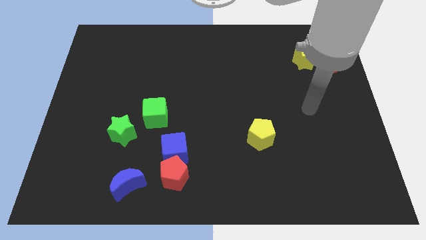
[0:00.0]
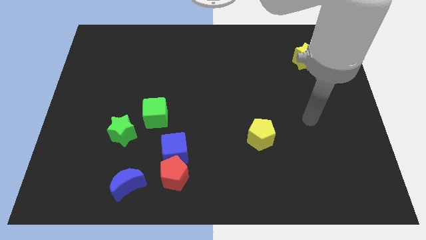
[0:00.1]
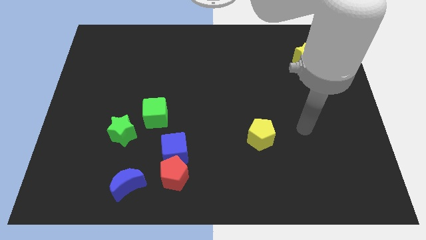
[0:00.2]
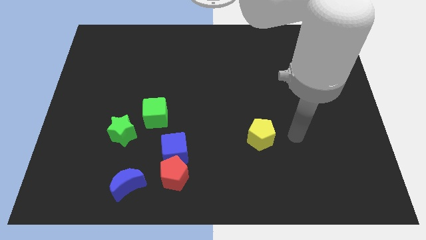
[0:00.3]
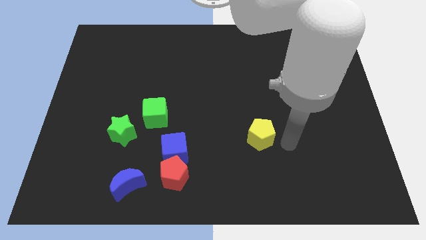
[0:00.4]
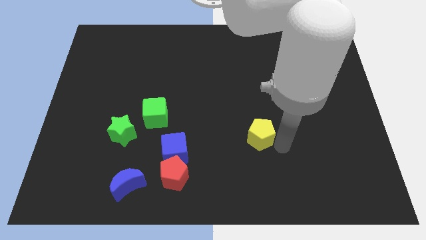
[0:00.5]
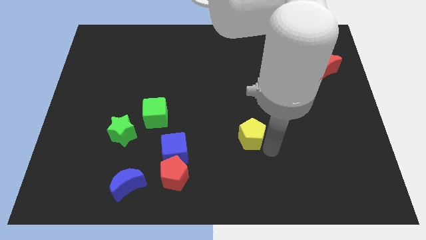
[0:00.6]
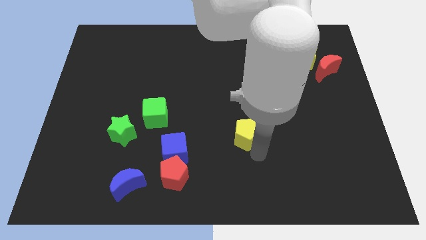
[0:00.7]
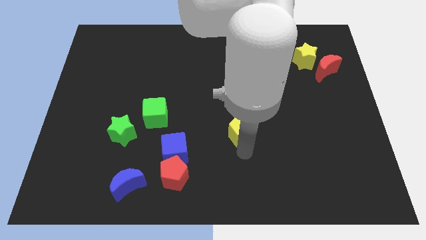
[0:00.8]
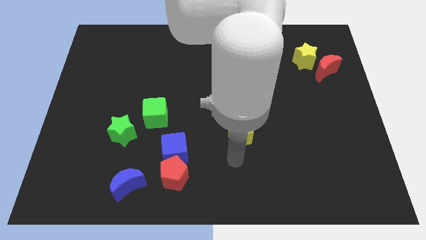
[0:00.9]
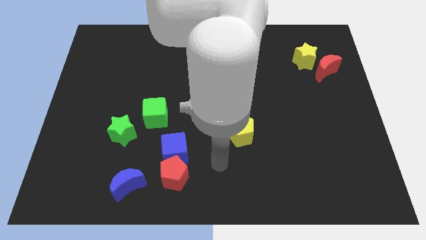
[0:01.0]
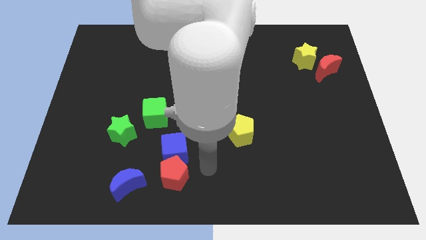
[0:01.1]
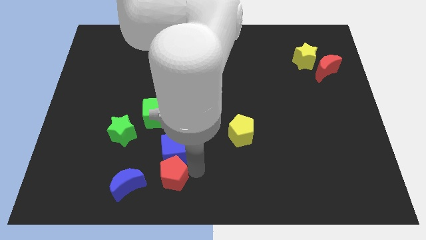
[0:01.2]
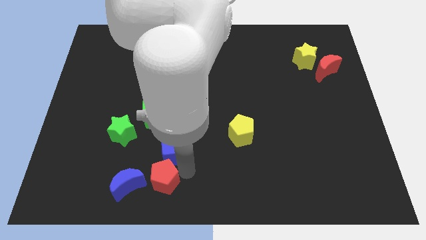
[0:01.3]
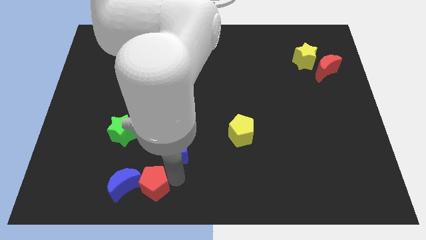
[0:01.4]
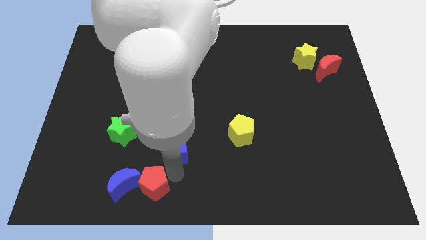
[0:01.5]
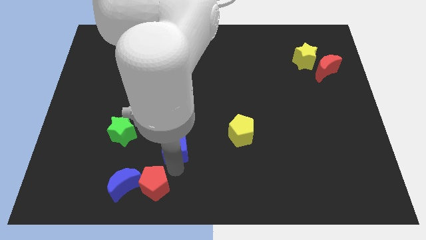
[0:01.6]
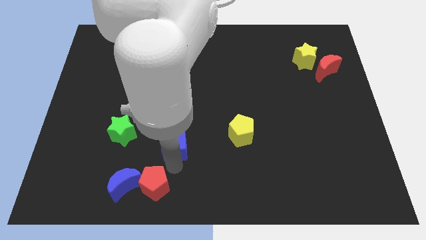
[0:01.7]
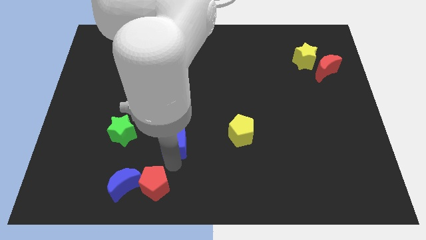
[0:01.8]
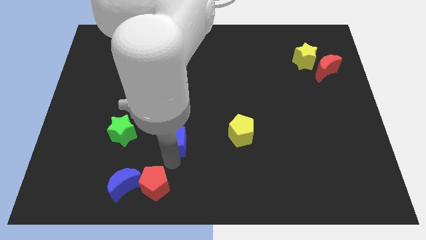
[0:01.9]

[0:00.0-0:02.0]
move the blue cube away from the red pentagon

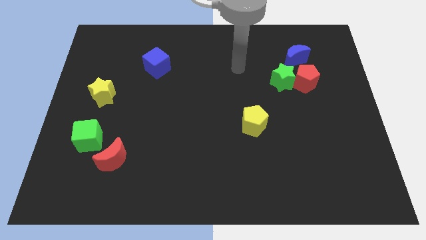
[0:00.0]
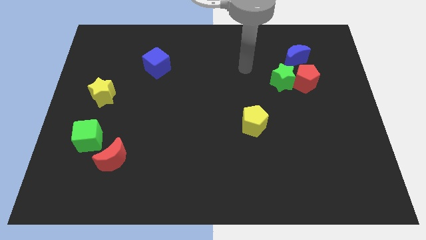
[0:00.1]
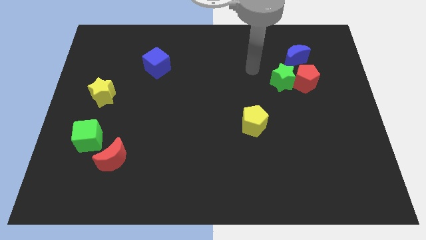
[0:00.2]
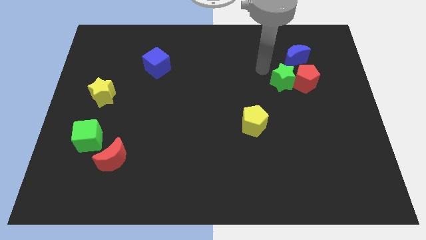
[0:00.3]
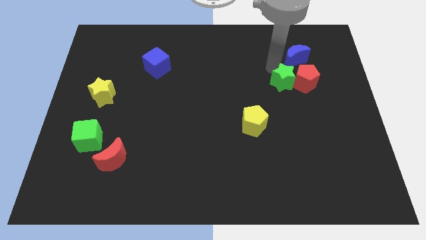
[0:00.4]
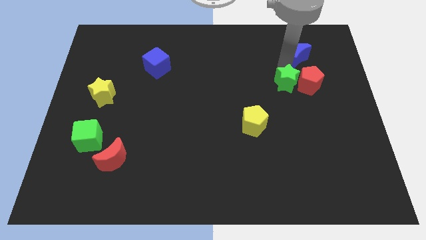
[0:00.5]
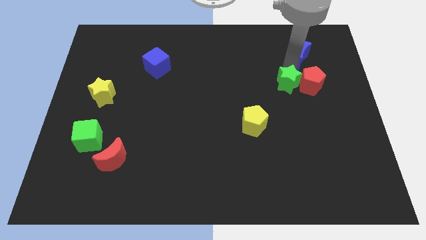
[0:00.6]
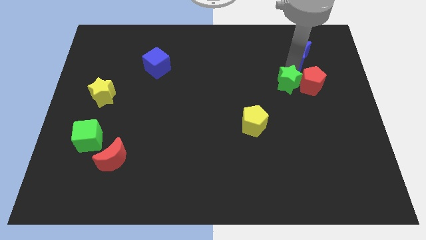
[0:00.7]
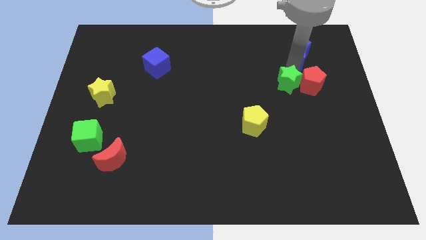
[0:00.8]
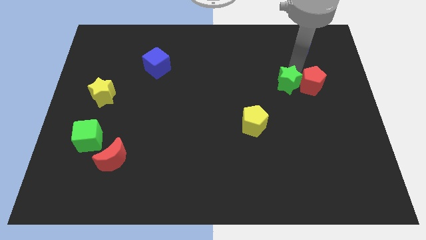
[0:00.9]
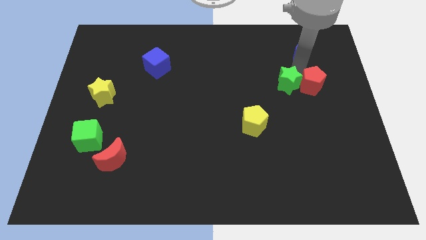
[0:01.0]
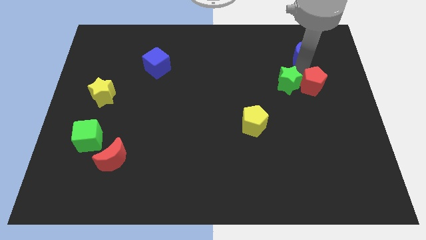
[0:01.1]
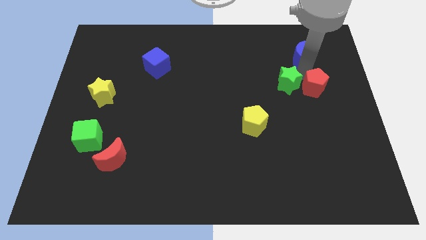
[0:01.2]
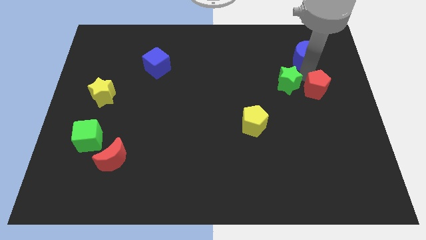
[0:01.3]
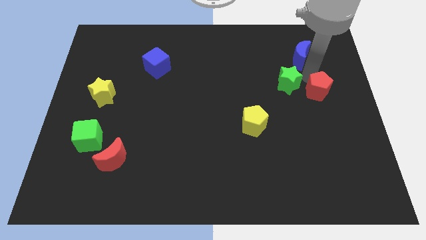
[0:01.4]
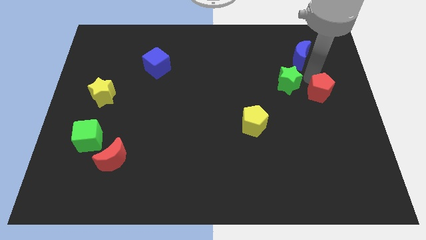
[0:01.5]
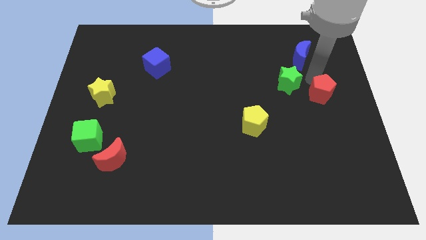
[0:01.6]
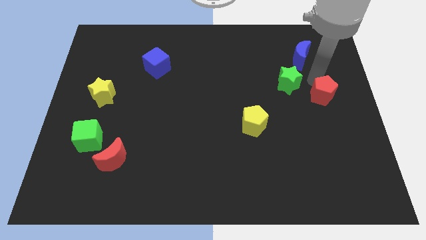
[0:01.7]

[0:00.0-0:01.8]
move the red pentagon away from the green star and blue moon

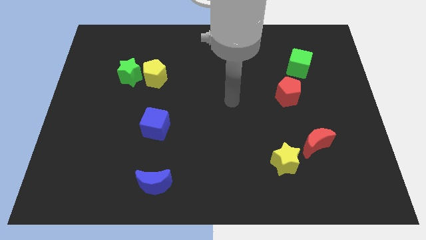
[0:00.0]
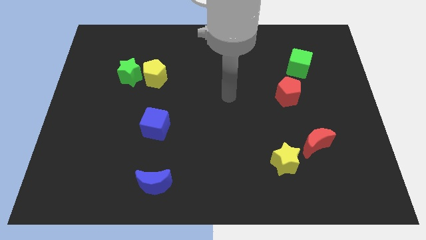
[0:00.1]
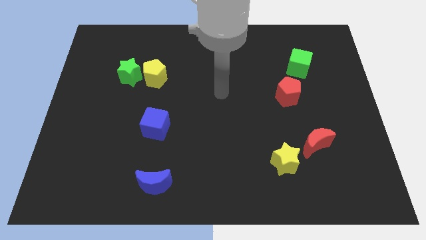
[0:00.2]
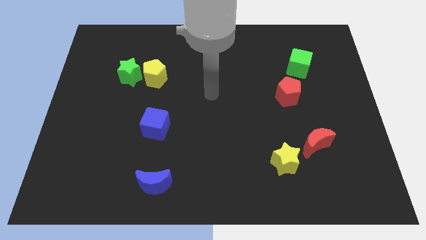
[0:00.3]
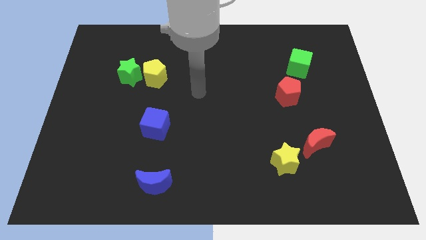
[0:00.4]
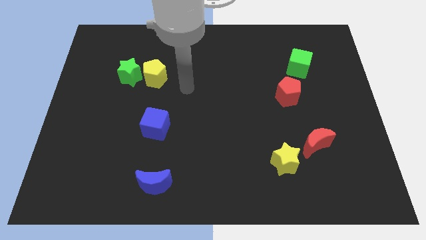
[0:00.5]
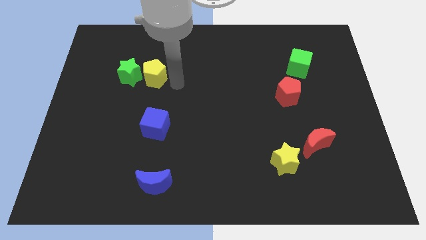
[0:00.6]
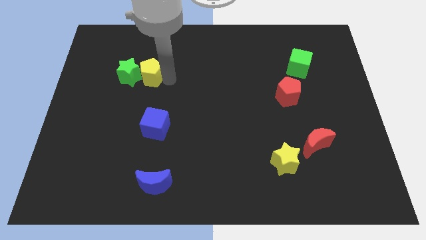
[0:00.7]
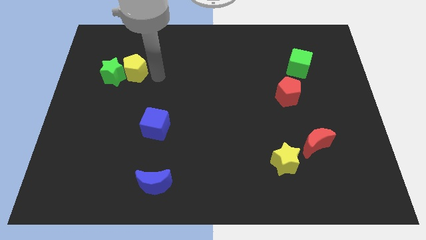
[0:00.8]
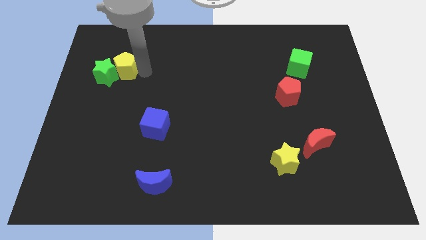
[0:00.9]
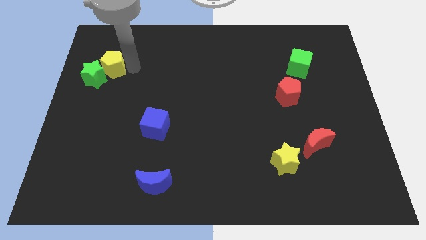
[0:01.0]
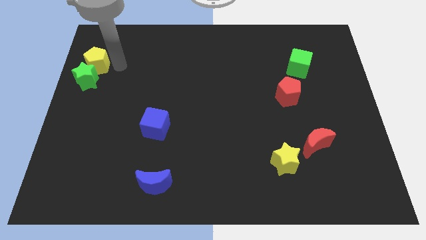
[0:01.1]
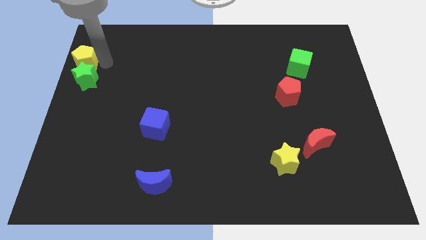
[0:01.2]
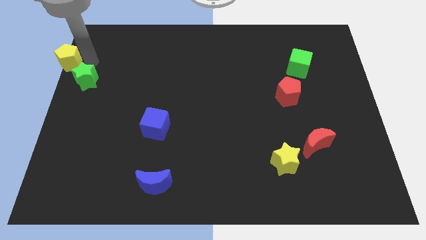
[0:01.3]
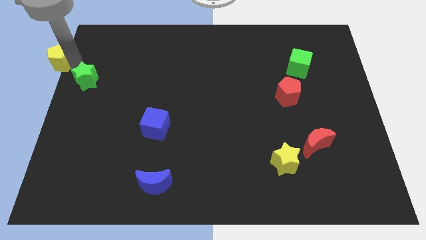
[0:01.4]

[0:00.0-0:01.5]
pull the green star apart from the yellow pentagon

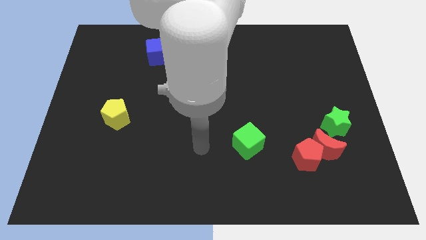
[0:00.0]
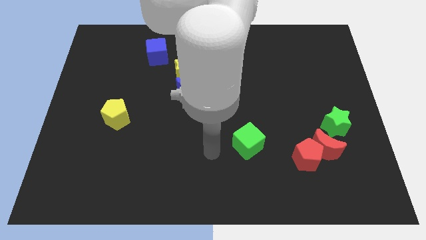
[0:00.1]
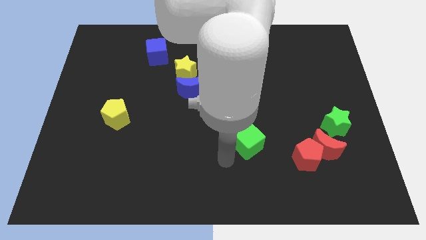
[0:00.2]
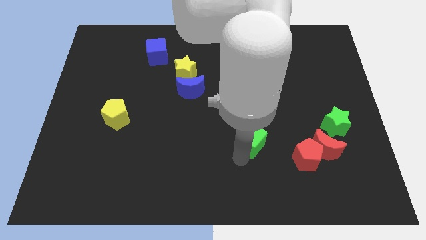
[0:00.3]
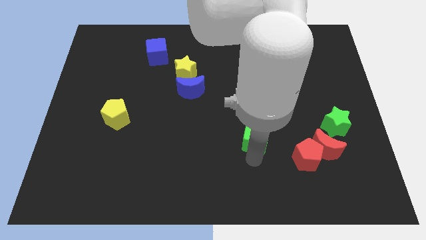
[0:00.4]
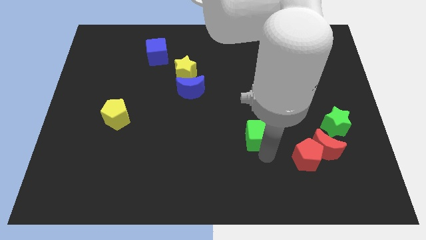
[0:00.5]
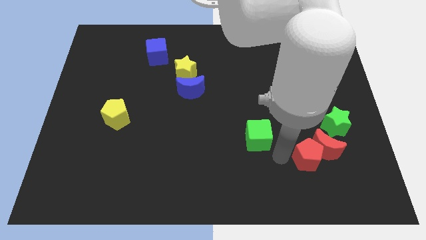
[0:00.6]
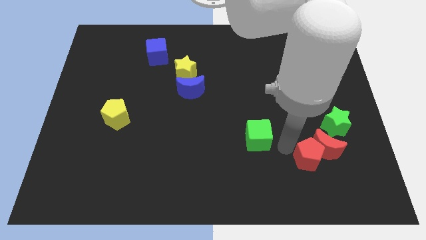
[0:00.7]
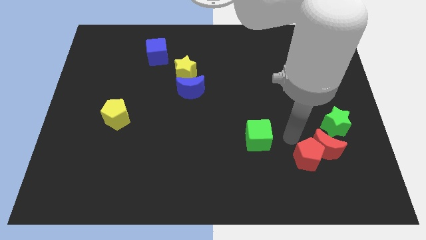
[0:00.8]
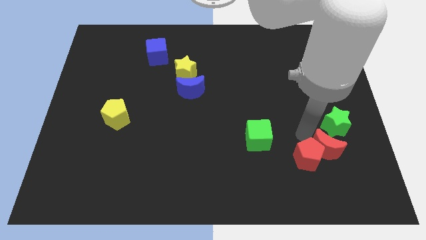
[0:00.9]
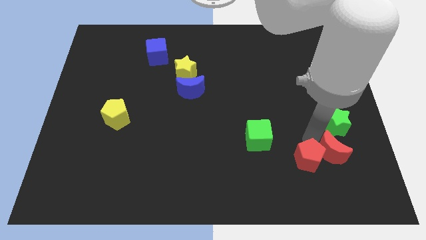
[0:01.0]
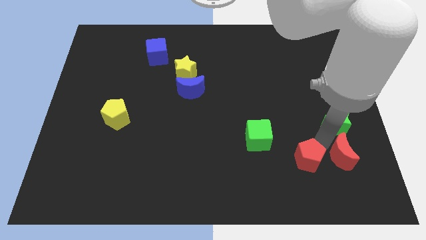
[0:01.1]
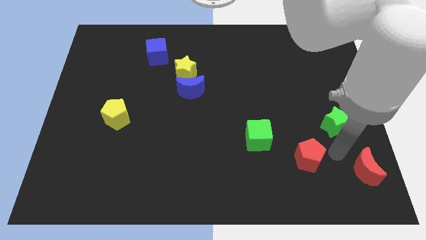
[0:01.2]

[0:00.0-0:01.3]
pull the red pentagon apart from the red moon

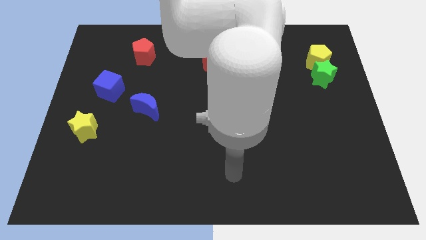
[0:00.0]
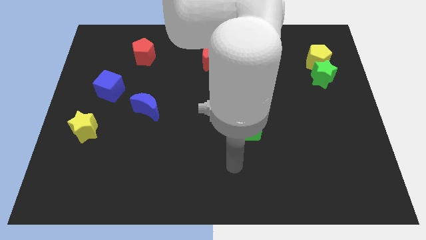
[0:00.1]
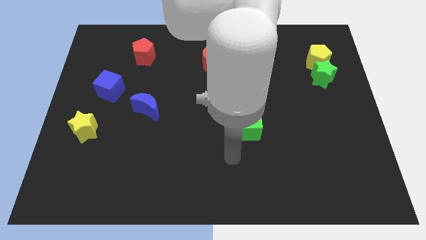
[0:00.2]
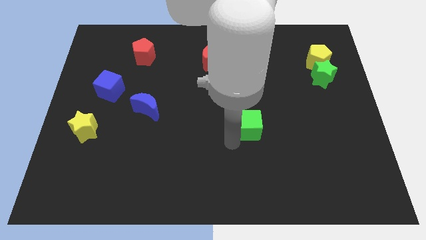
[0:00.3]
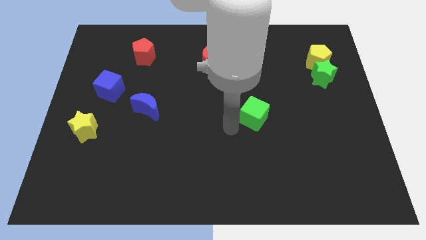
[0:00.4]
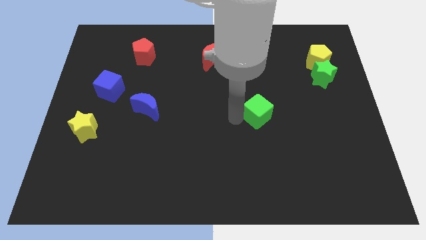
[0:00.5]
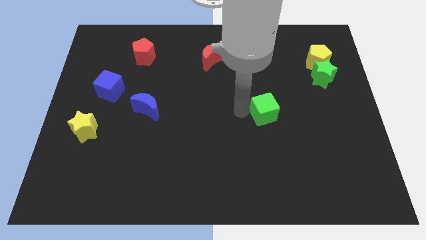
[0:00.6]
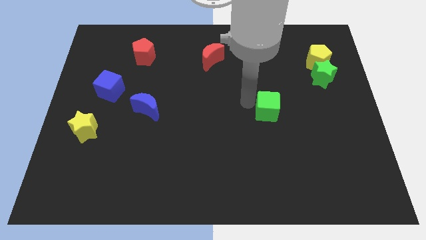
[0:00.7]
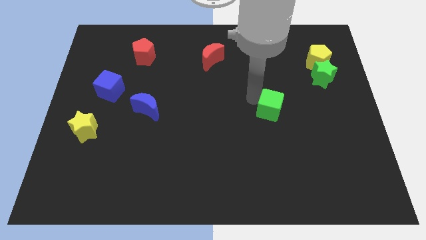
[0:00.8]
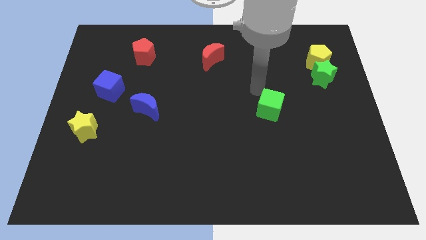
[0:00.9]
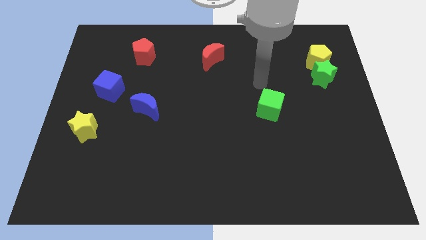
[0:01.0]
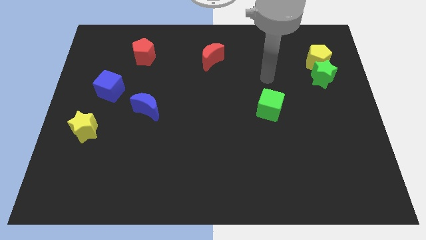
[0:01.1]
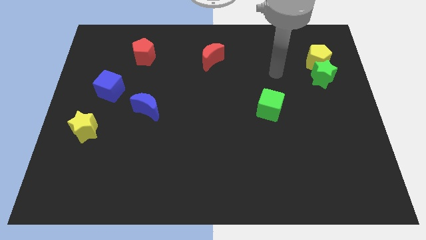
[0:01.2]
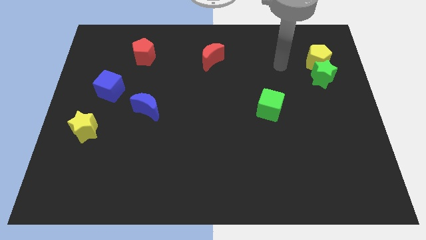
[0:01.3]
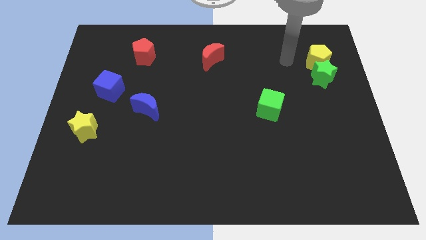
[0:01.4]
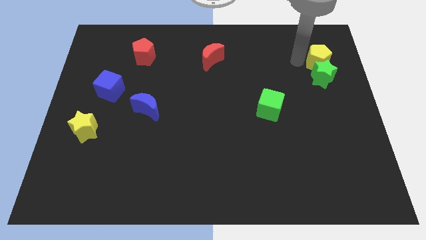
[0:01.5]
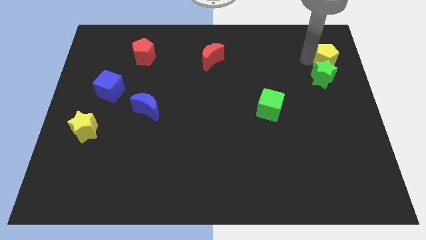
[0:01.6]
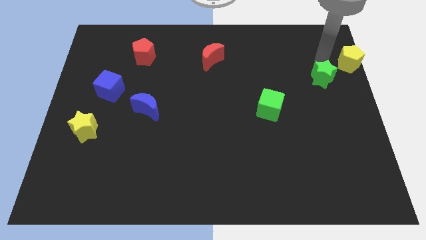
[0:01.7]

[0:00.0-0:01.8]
separate the green star from the yellow pentagon

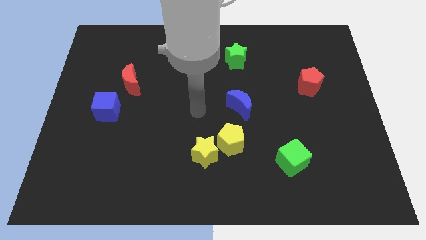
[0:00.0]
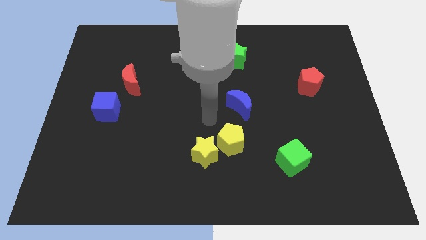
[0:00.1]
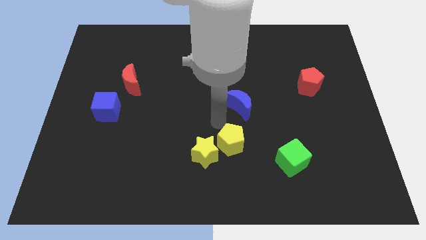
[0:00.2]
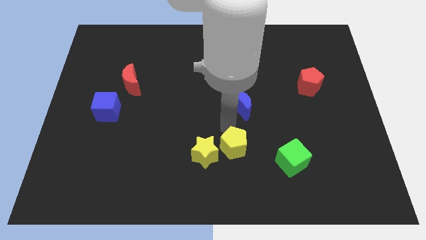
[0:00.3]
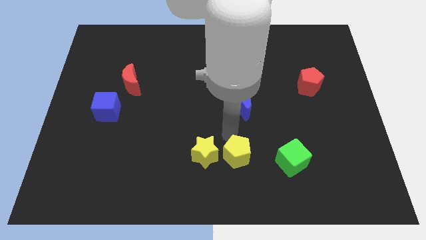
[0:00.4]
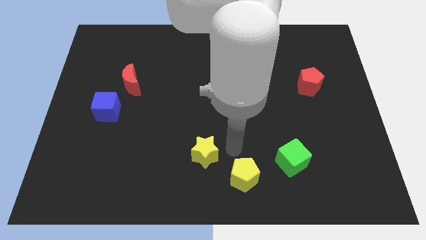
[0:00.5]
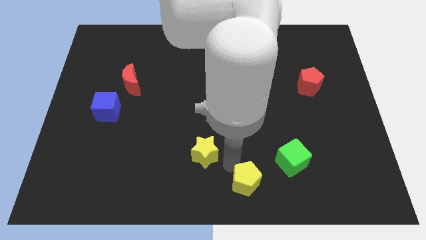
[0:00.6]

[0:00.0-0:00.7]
move the yellow star away from the yellow pentagon
